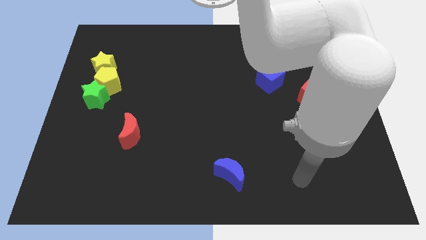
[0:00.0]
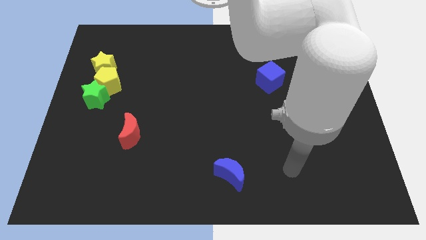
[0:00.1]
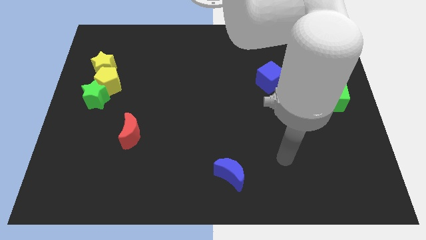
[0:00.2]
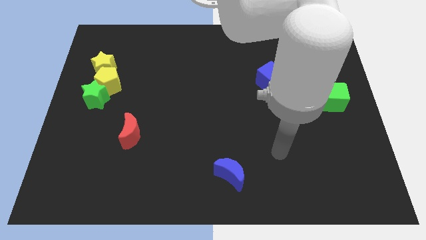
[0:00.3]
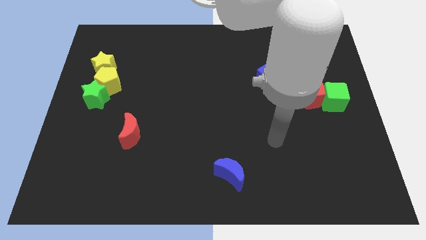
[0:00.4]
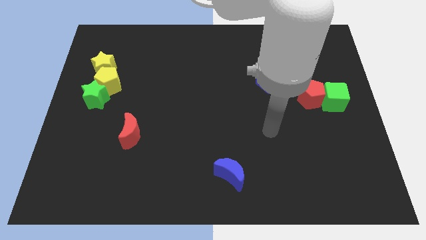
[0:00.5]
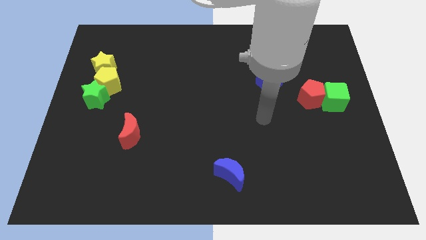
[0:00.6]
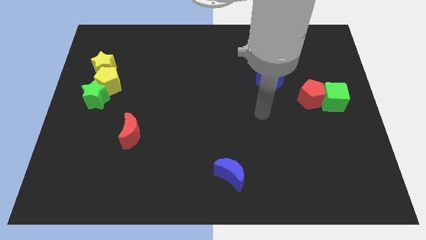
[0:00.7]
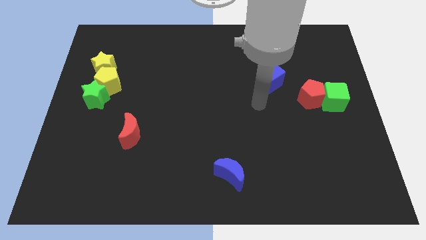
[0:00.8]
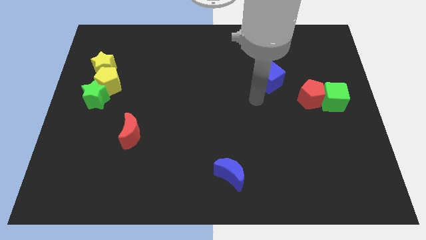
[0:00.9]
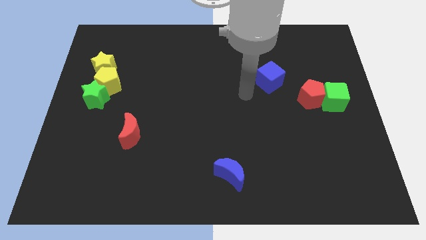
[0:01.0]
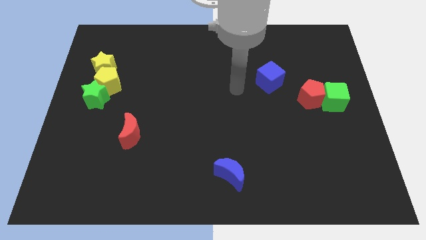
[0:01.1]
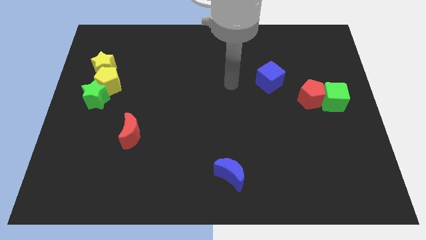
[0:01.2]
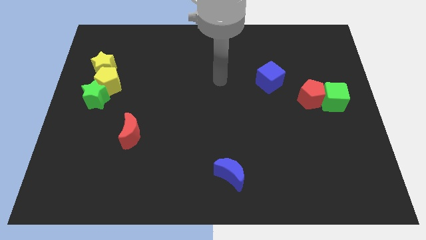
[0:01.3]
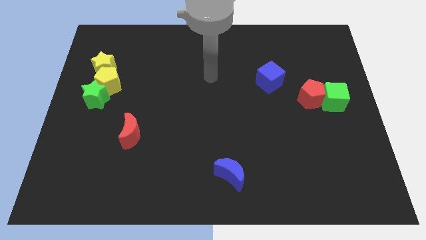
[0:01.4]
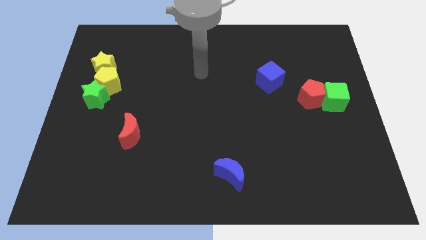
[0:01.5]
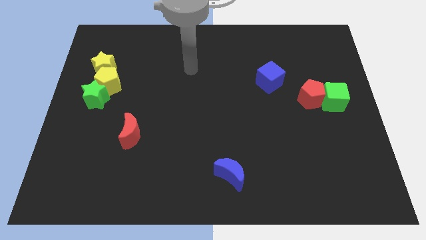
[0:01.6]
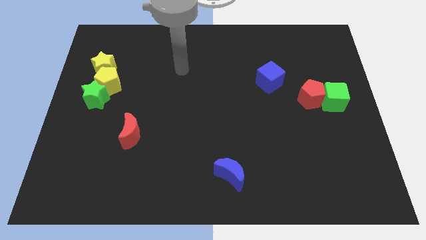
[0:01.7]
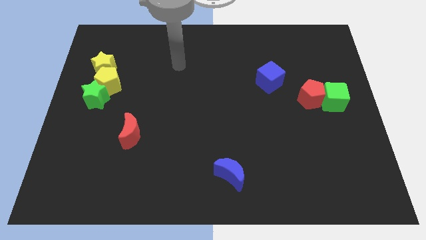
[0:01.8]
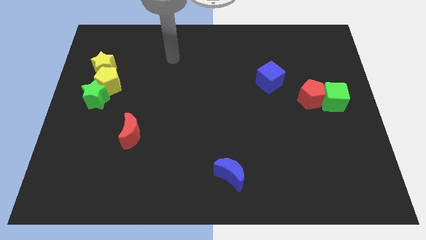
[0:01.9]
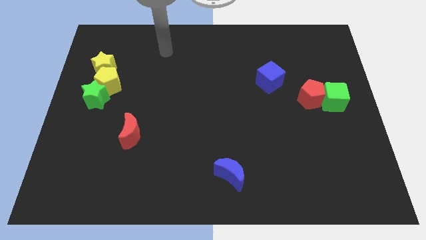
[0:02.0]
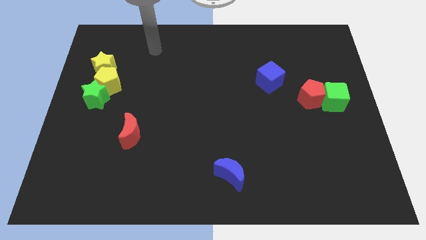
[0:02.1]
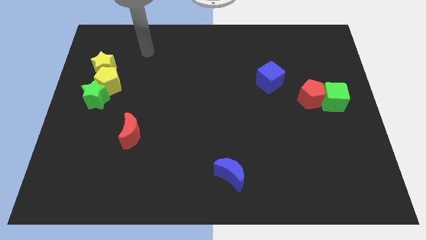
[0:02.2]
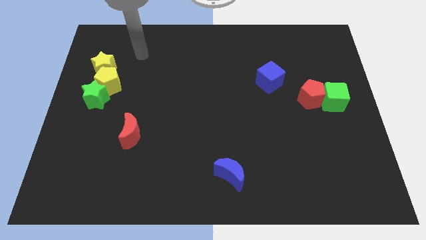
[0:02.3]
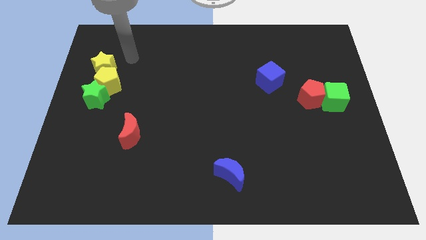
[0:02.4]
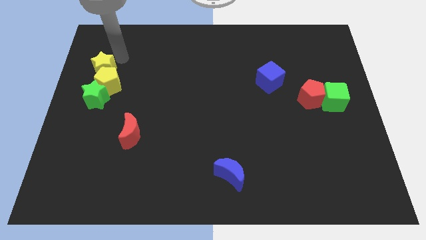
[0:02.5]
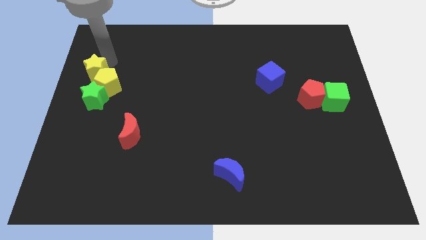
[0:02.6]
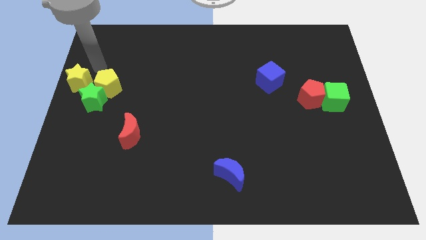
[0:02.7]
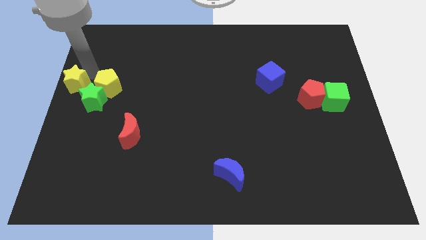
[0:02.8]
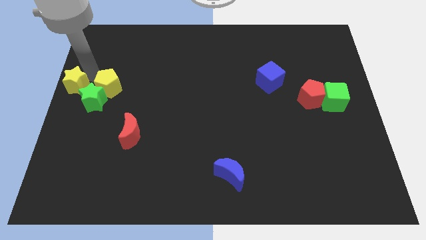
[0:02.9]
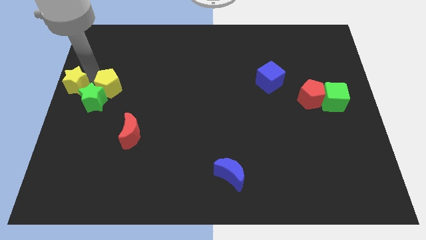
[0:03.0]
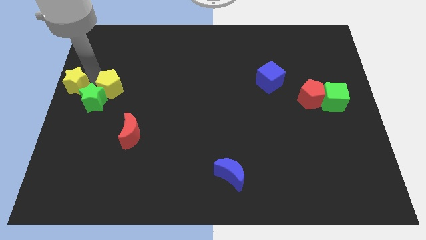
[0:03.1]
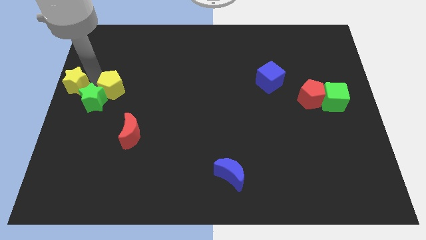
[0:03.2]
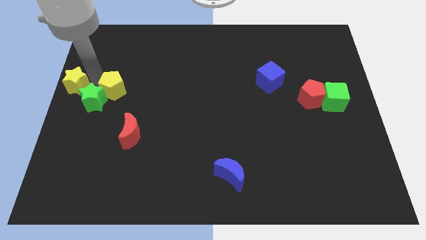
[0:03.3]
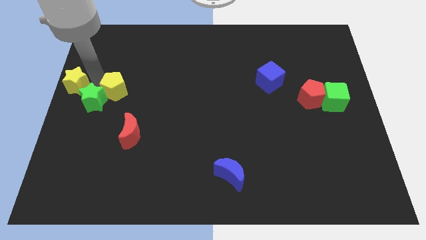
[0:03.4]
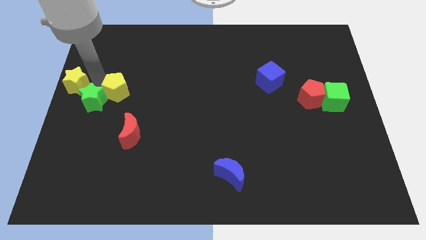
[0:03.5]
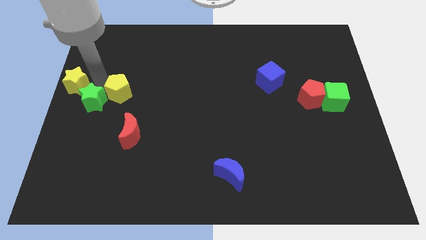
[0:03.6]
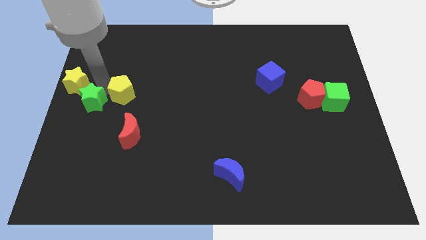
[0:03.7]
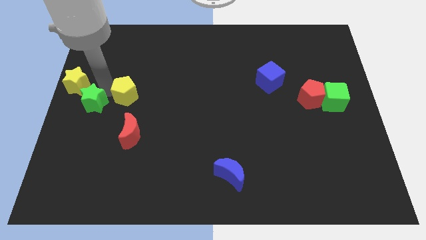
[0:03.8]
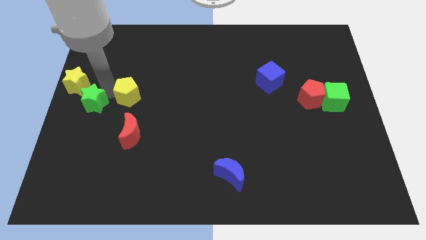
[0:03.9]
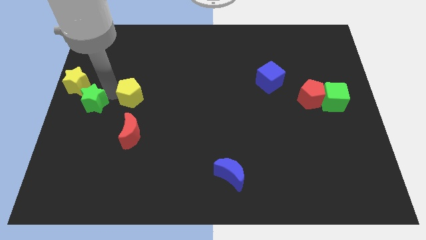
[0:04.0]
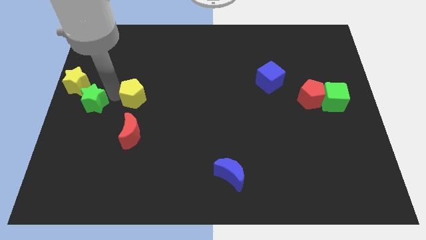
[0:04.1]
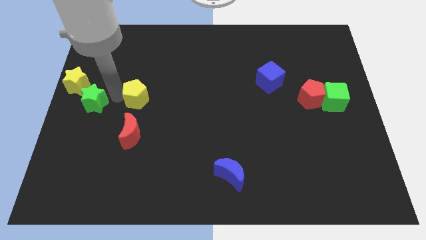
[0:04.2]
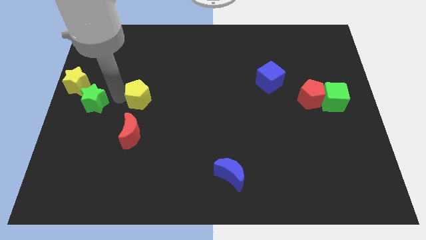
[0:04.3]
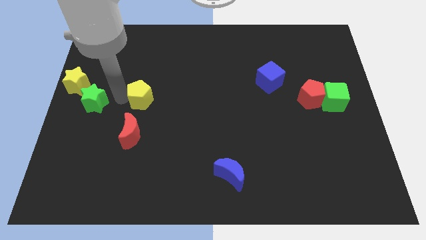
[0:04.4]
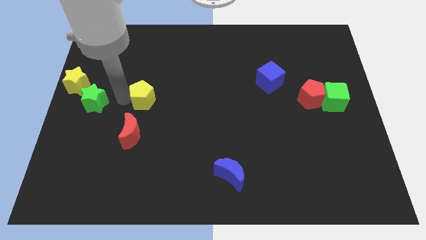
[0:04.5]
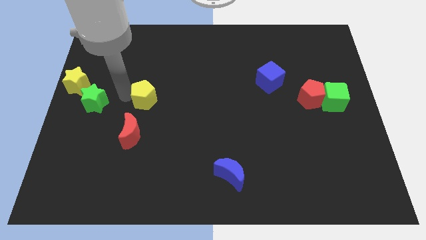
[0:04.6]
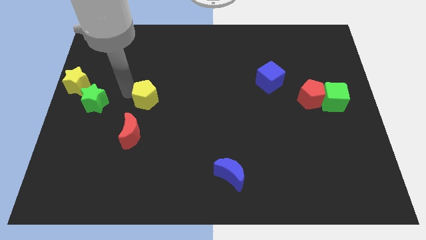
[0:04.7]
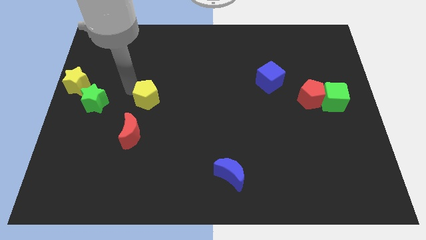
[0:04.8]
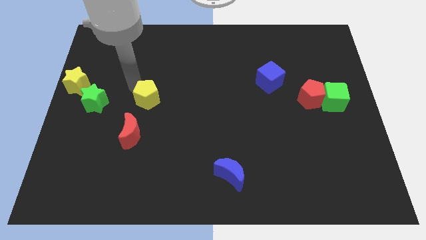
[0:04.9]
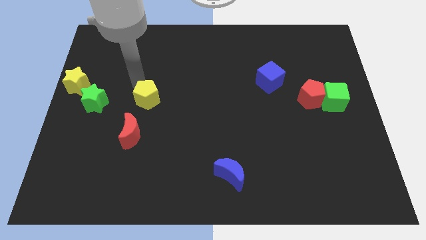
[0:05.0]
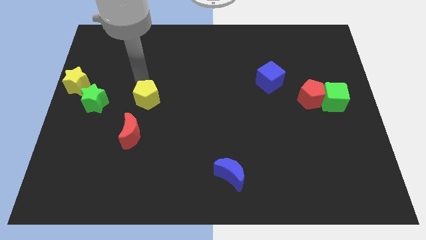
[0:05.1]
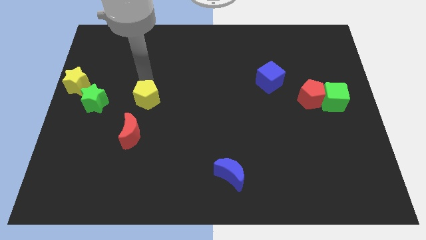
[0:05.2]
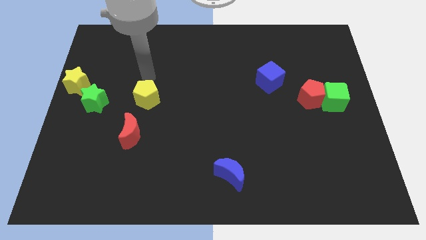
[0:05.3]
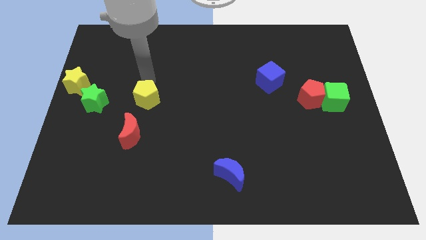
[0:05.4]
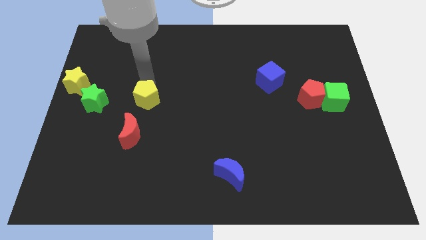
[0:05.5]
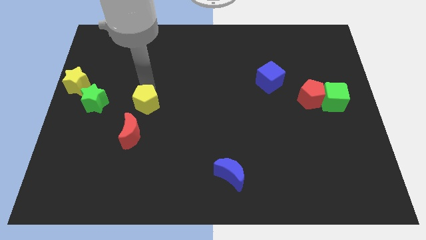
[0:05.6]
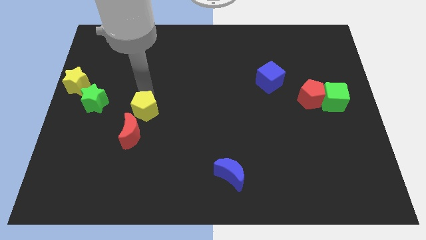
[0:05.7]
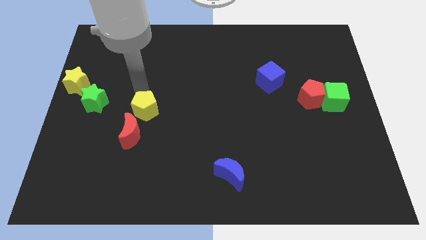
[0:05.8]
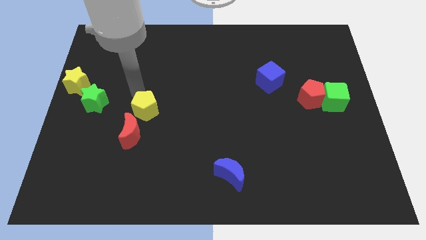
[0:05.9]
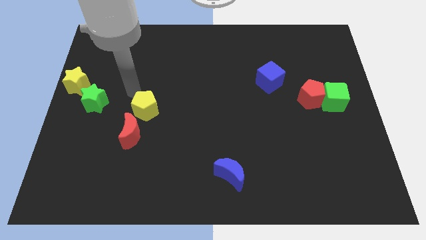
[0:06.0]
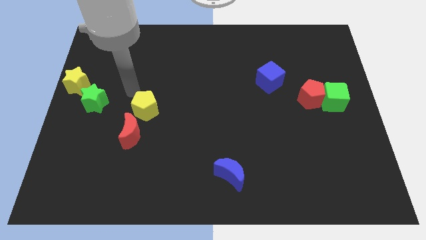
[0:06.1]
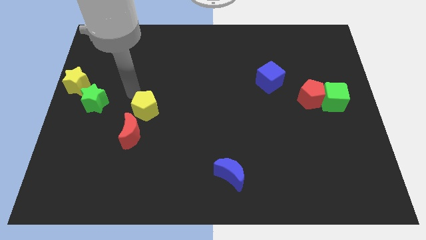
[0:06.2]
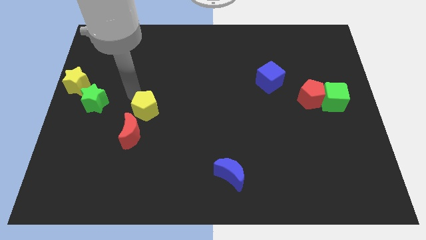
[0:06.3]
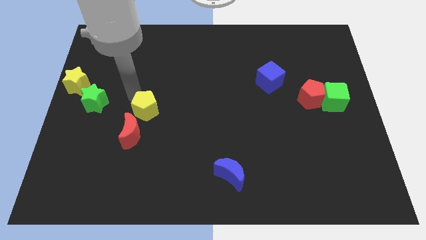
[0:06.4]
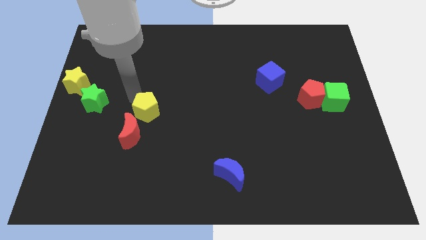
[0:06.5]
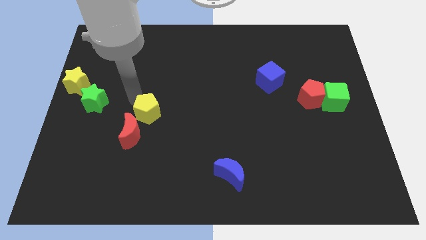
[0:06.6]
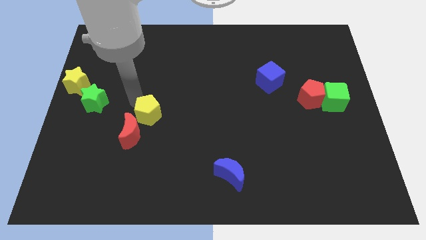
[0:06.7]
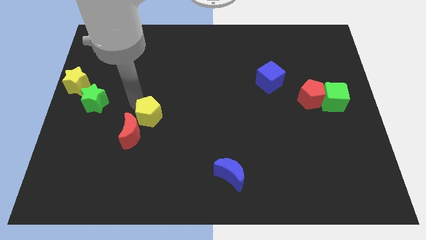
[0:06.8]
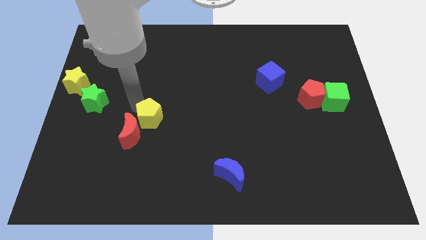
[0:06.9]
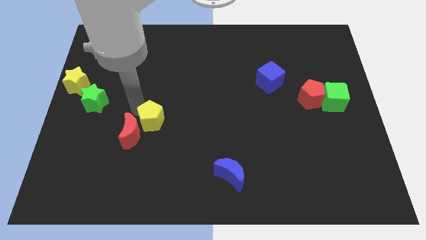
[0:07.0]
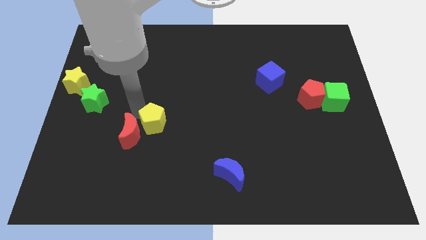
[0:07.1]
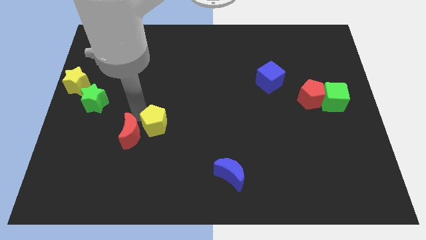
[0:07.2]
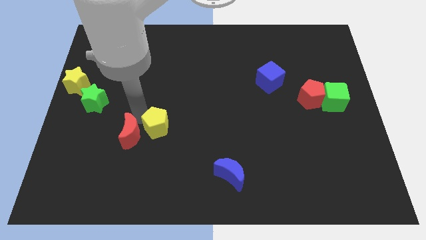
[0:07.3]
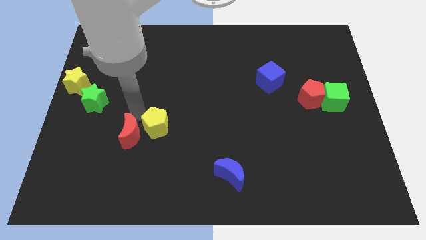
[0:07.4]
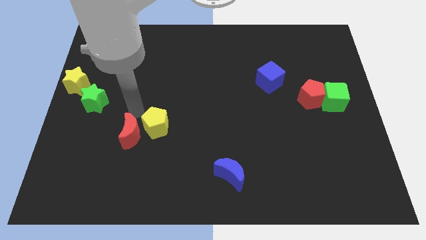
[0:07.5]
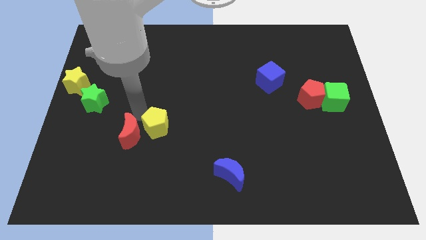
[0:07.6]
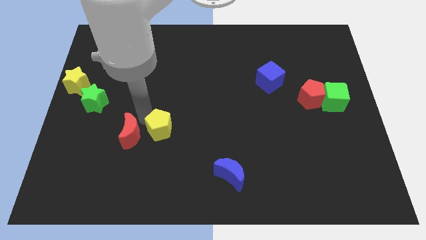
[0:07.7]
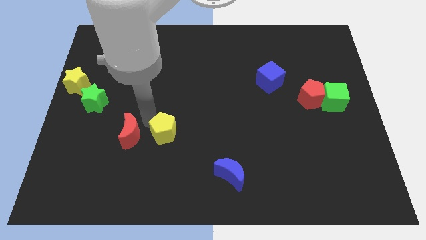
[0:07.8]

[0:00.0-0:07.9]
move the yellow pentagon diagonally downwards and right
